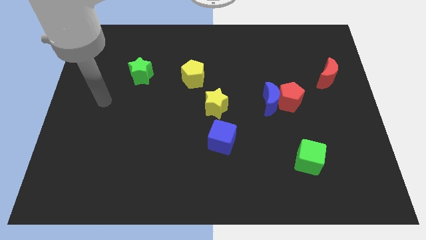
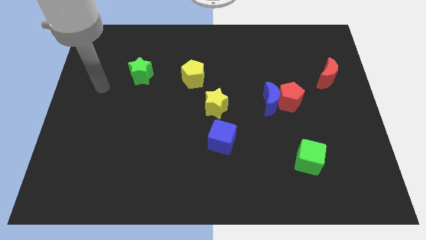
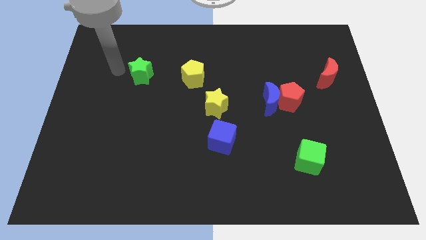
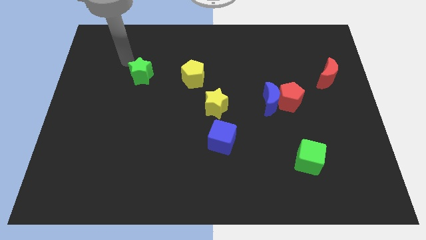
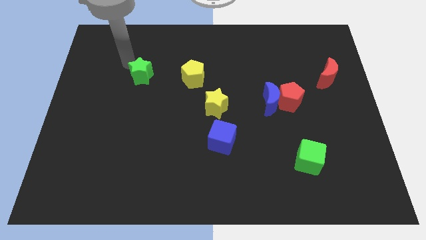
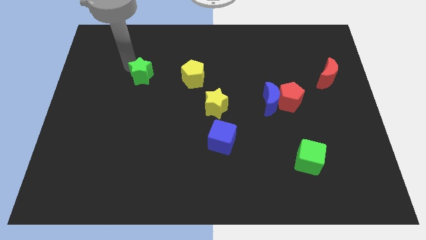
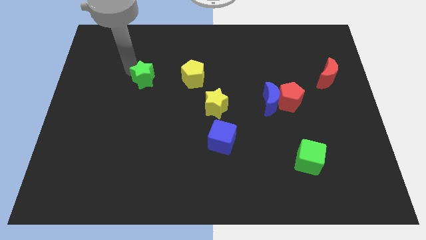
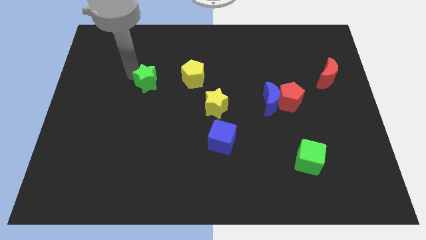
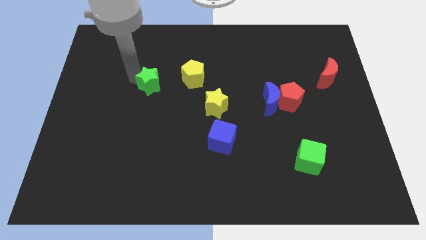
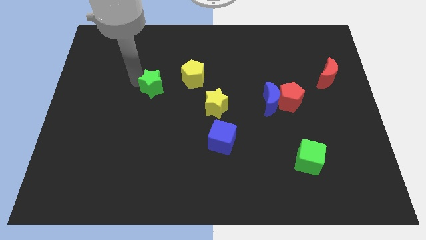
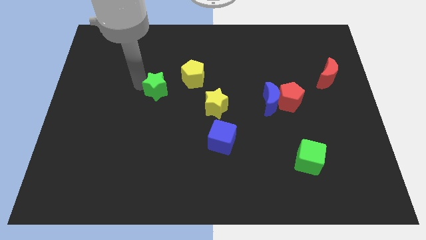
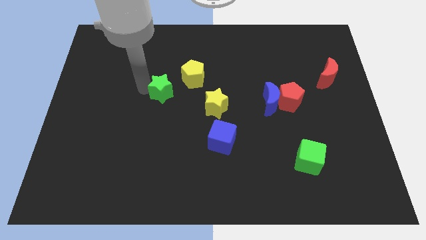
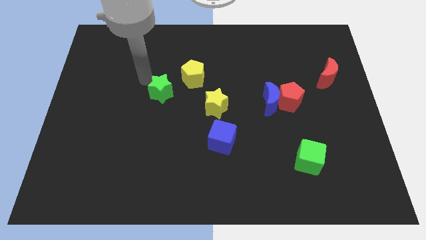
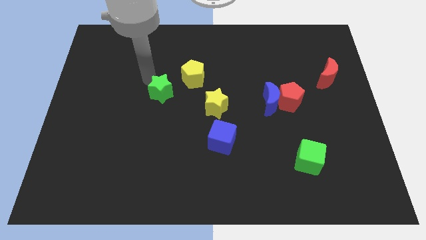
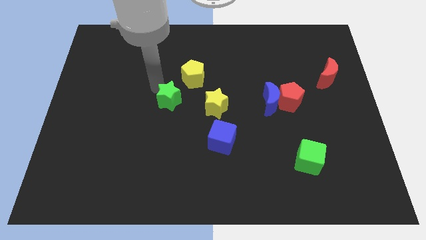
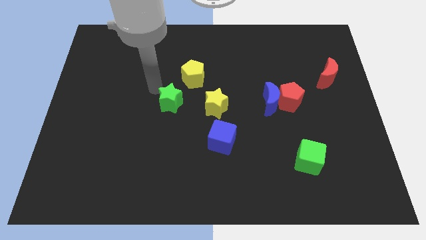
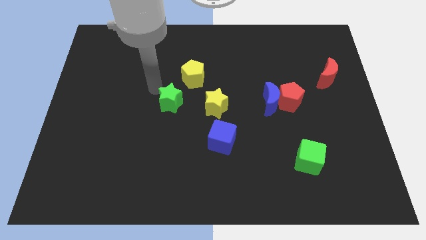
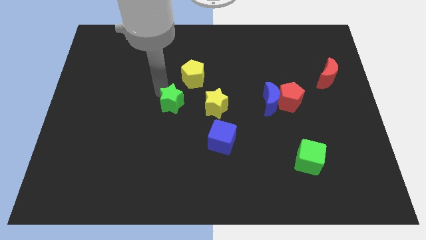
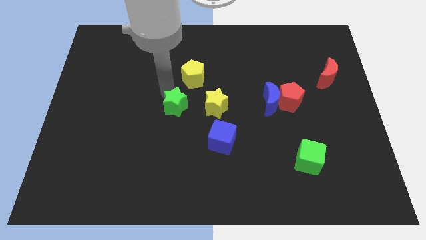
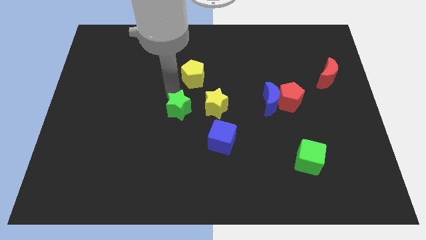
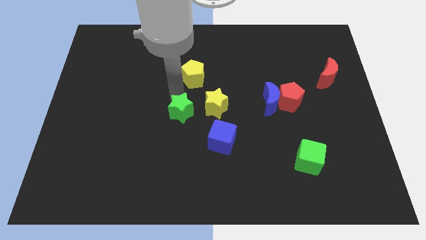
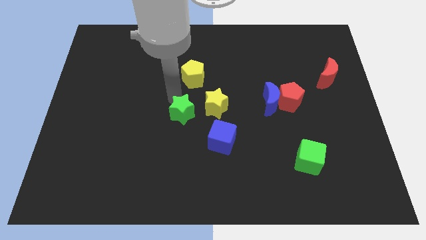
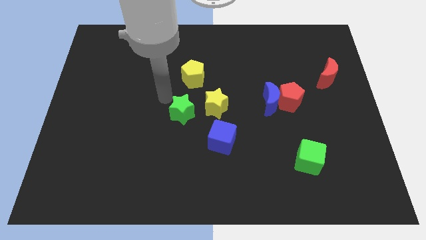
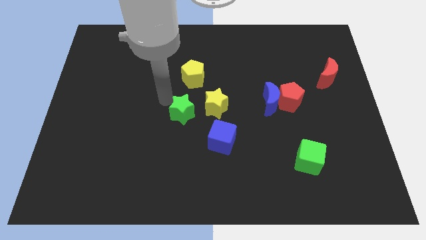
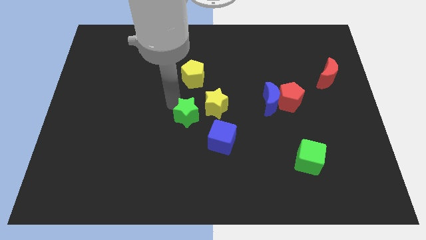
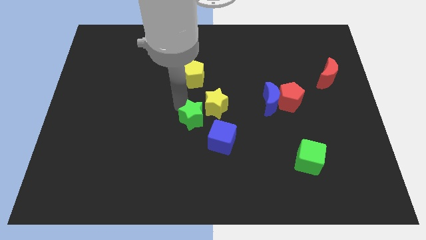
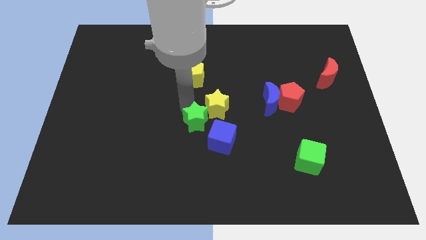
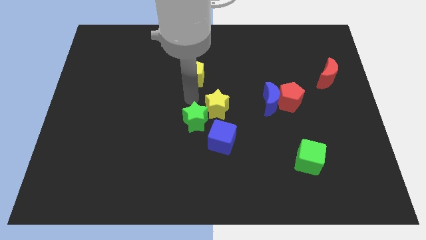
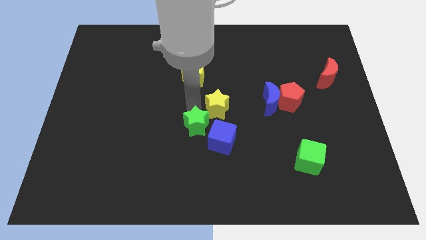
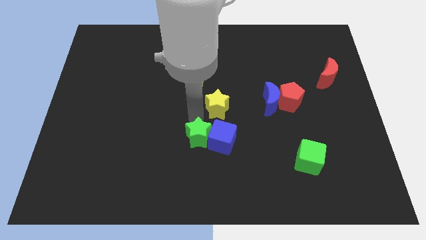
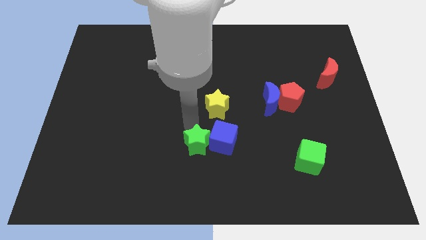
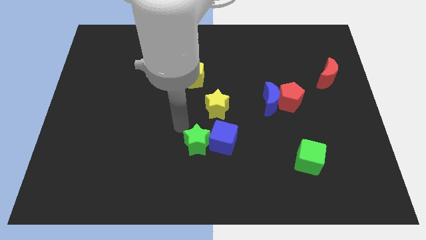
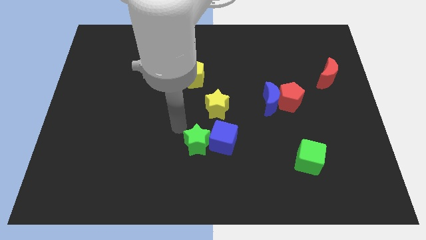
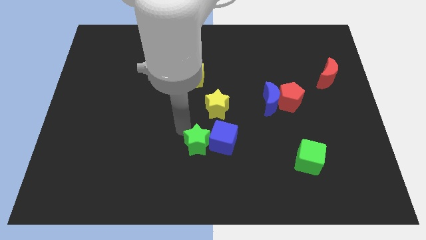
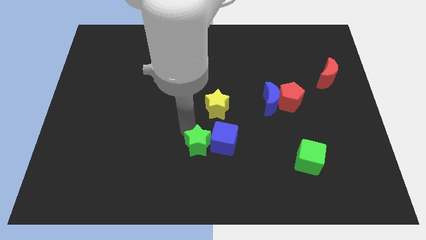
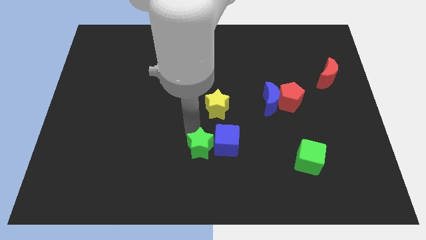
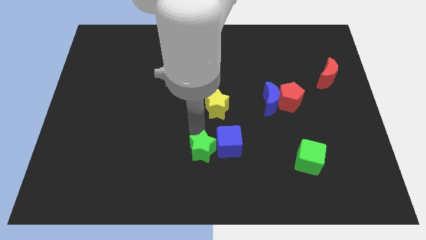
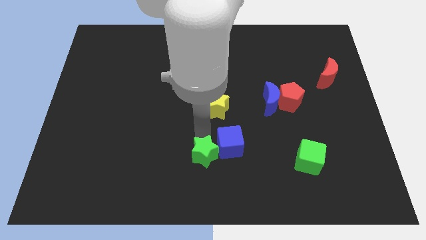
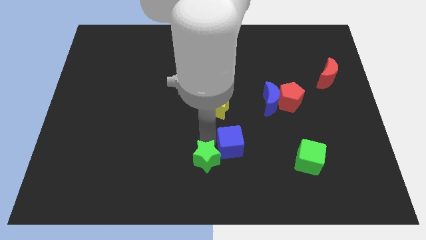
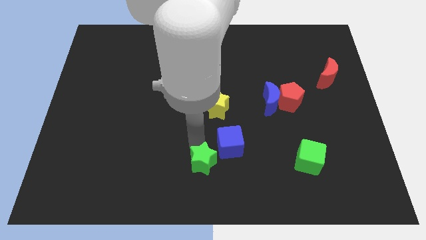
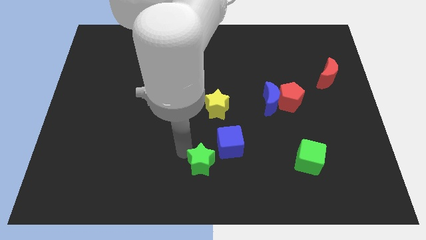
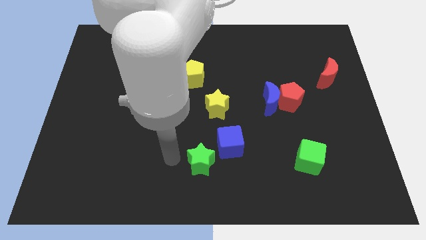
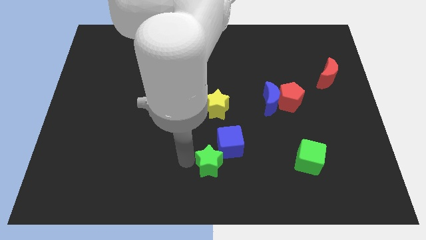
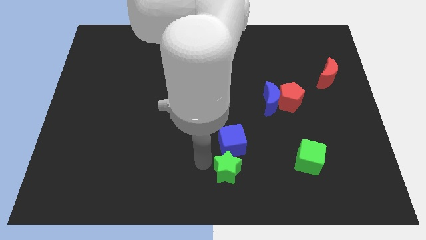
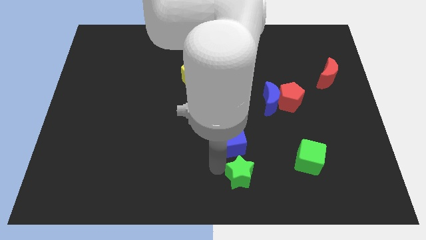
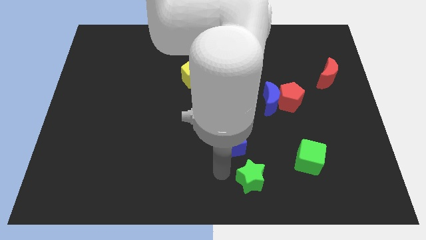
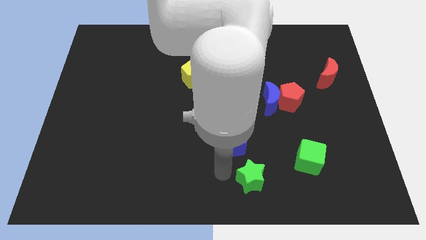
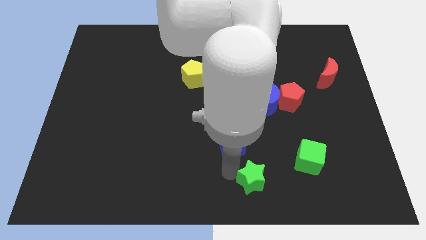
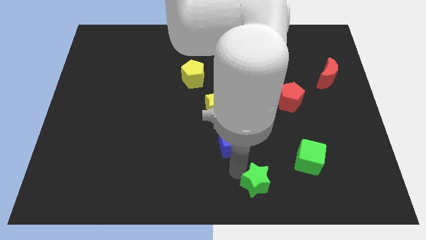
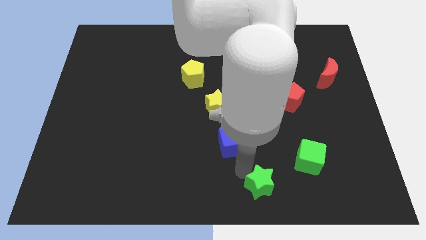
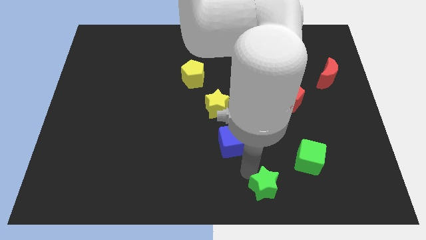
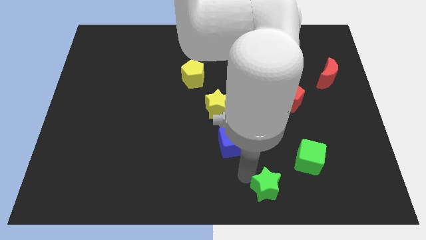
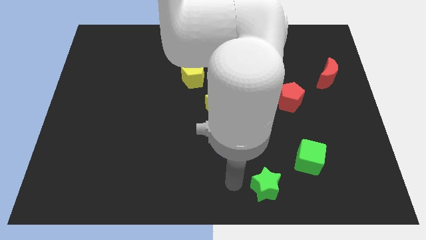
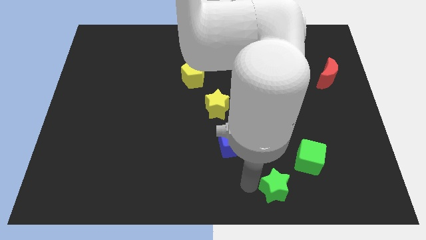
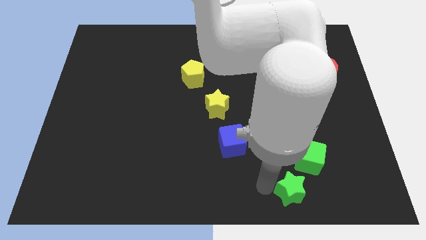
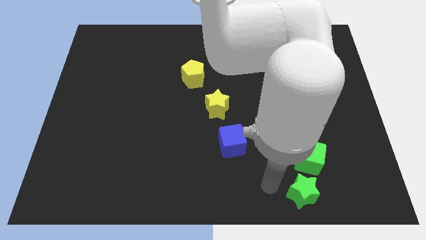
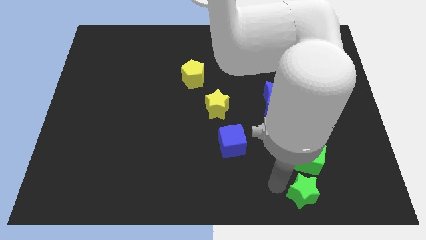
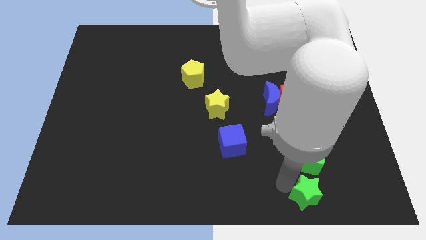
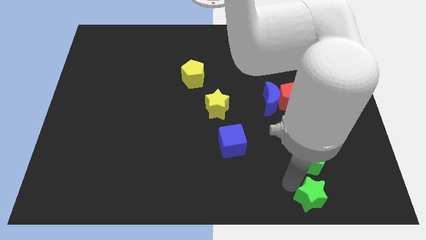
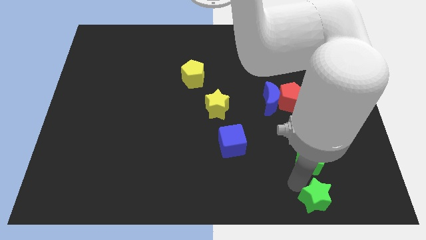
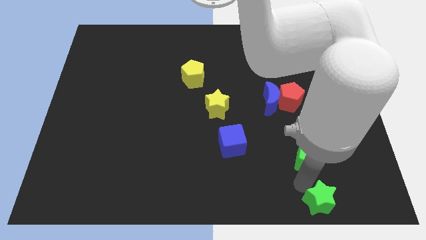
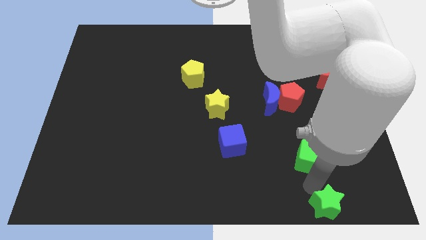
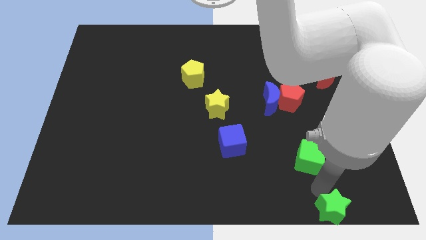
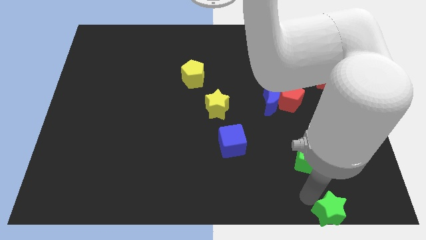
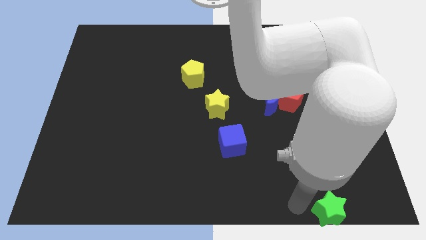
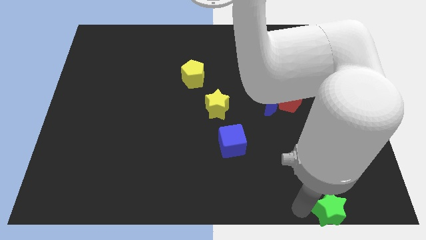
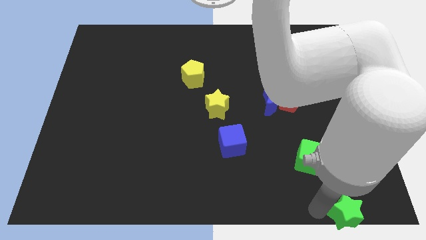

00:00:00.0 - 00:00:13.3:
move the green star to the lower right corner
